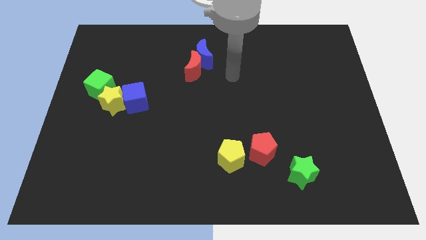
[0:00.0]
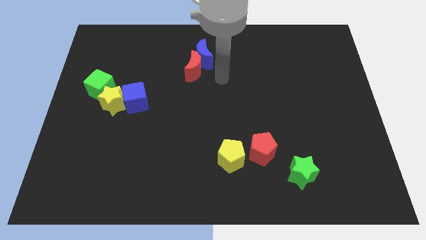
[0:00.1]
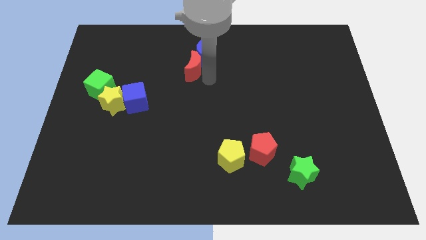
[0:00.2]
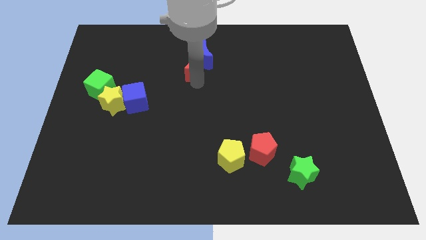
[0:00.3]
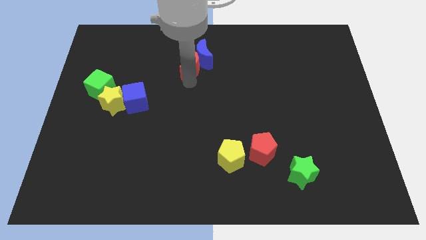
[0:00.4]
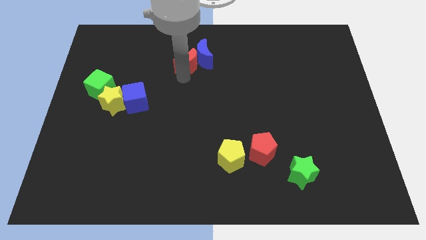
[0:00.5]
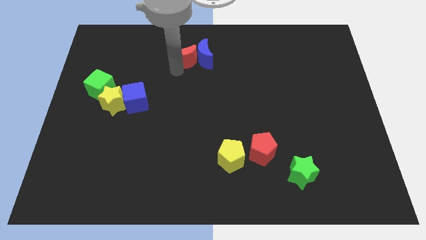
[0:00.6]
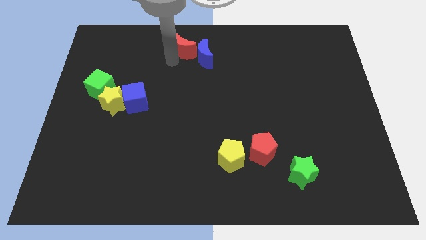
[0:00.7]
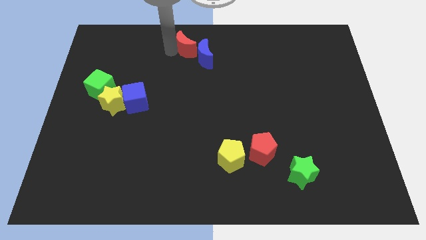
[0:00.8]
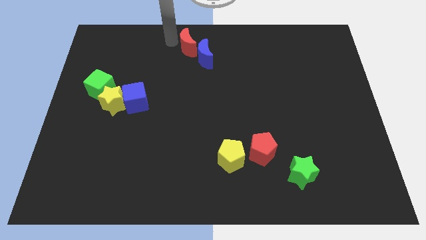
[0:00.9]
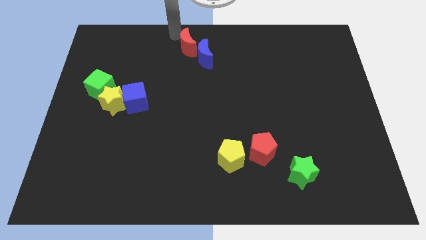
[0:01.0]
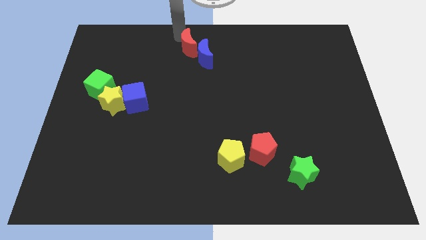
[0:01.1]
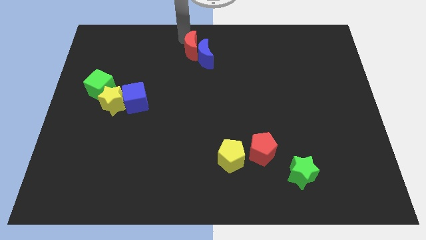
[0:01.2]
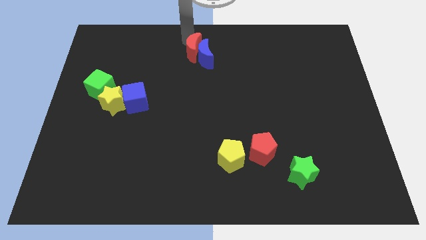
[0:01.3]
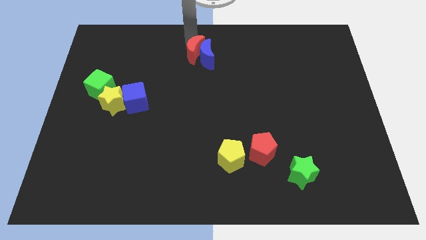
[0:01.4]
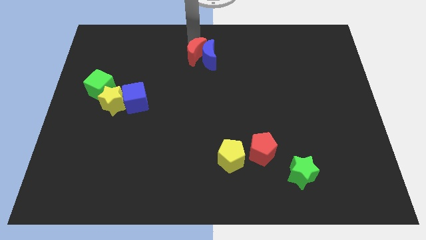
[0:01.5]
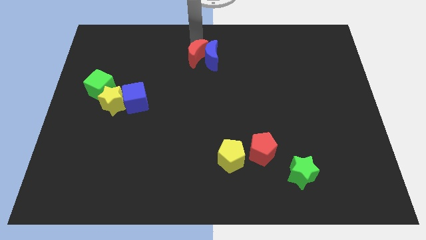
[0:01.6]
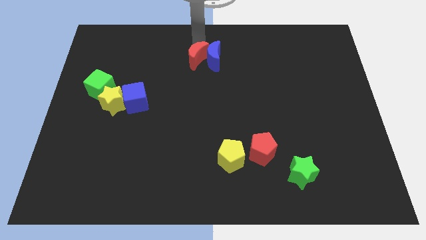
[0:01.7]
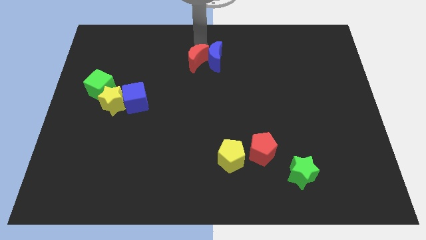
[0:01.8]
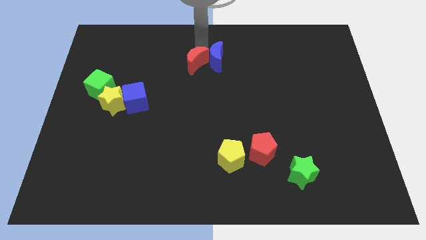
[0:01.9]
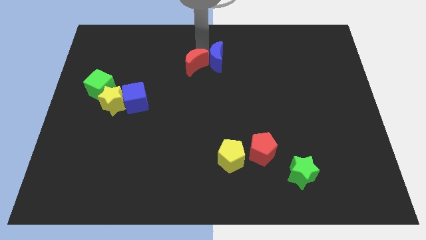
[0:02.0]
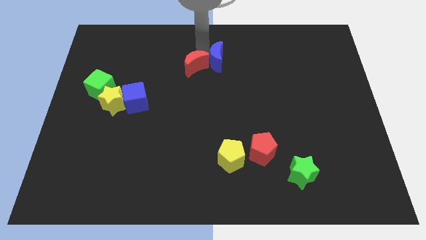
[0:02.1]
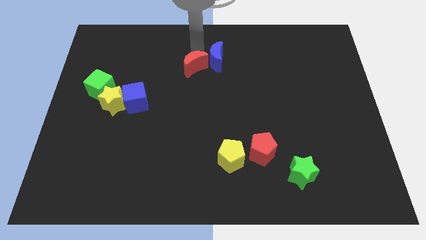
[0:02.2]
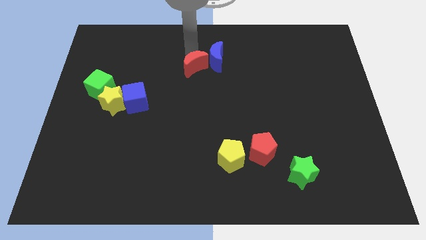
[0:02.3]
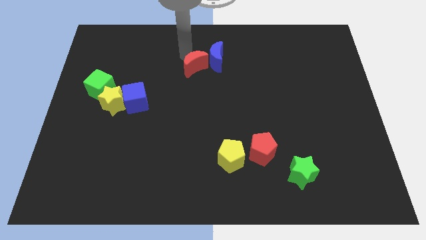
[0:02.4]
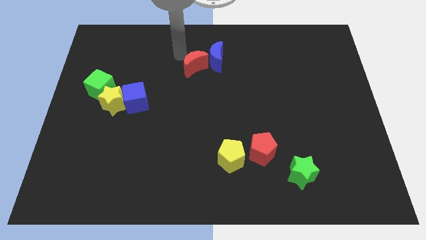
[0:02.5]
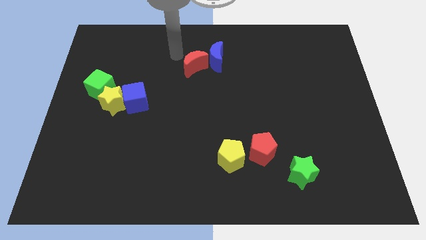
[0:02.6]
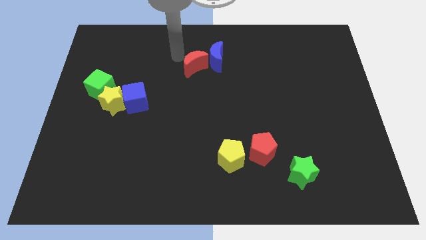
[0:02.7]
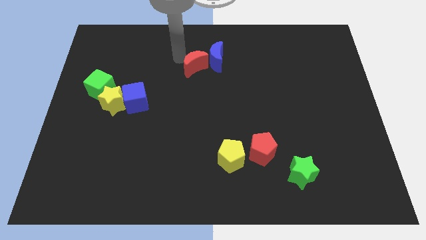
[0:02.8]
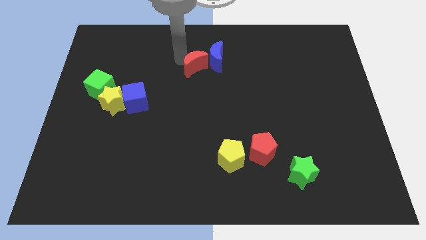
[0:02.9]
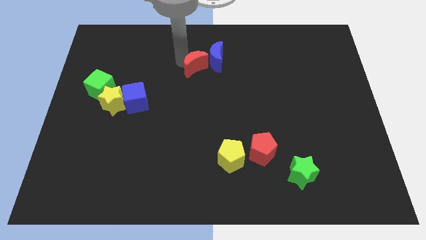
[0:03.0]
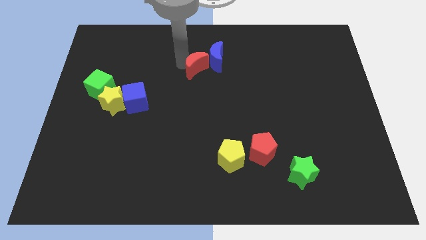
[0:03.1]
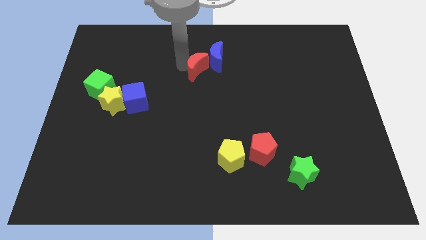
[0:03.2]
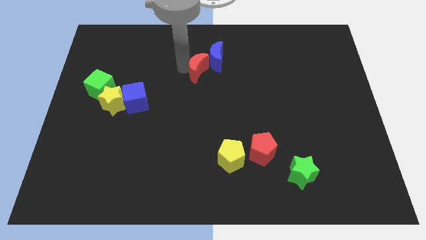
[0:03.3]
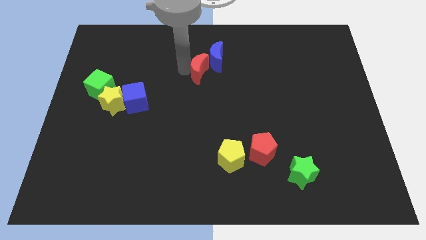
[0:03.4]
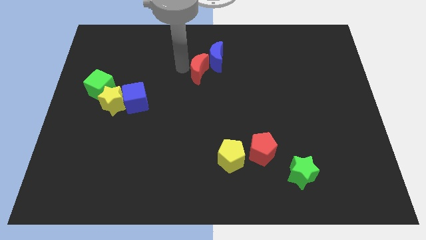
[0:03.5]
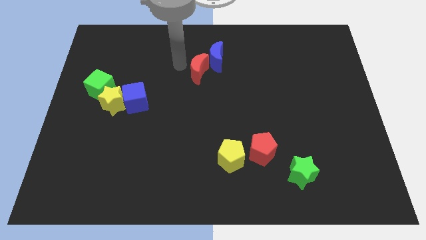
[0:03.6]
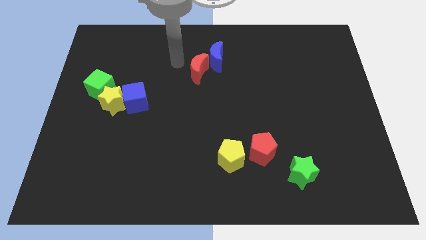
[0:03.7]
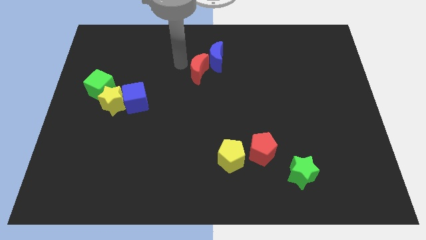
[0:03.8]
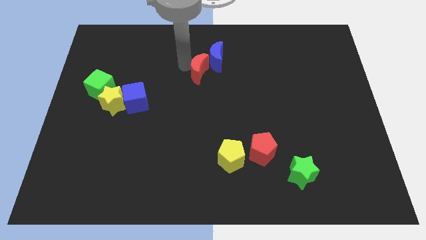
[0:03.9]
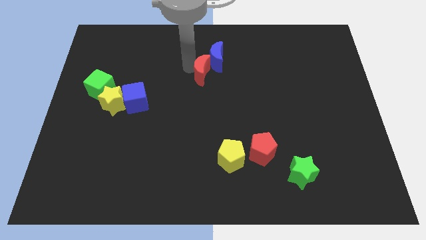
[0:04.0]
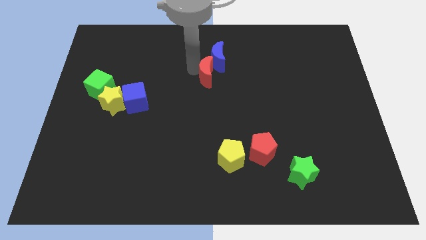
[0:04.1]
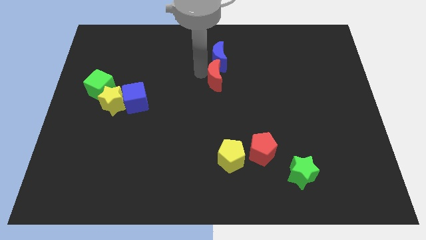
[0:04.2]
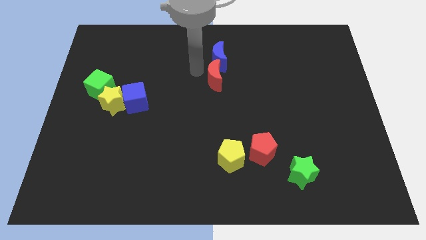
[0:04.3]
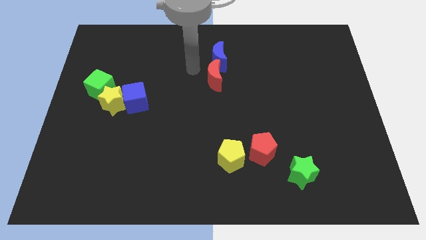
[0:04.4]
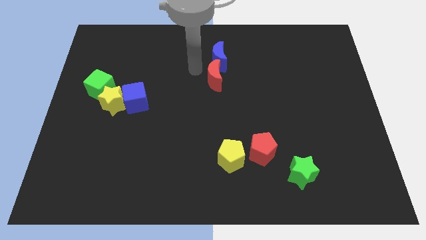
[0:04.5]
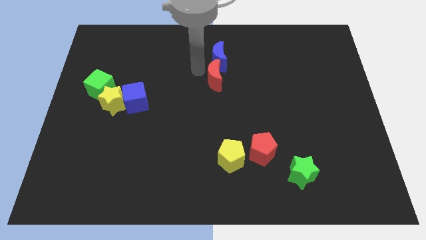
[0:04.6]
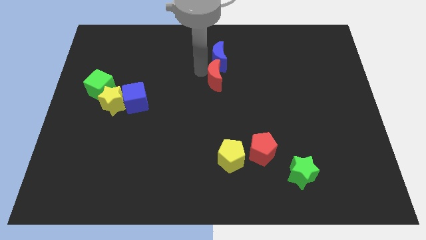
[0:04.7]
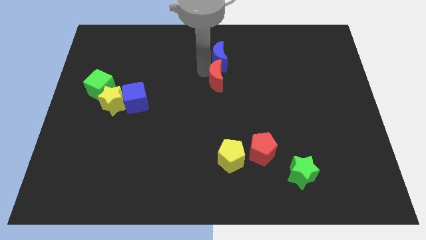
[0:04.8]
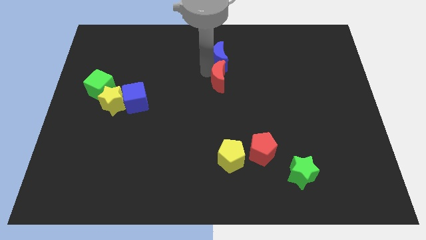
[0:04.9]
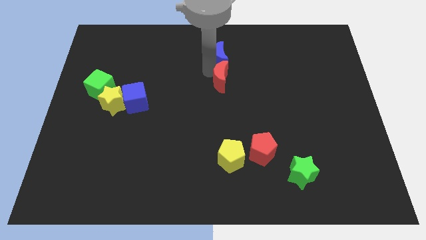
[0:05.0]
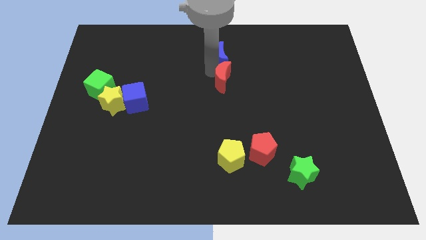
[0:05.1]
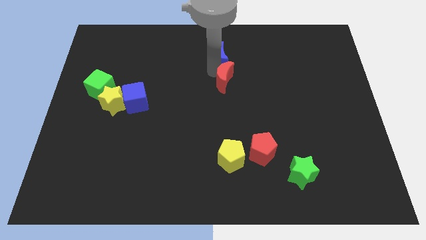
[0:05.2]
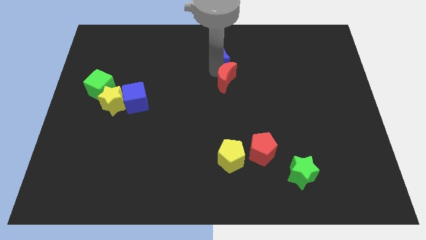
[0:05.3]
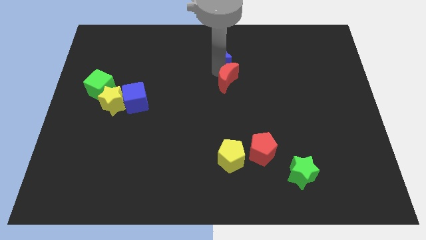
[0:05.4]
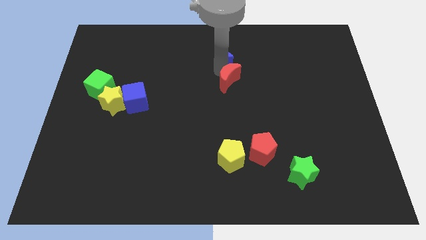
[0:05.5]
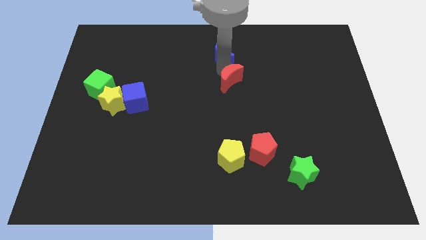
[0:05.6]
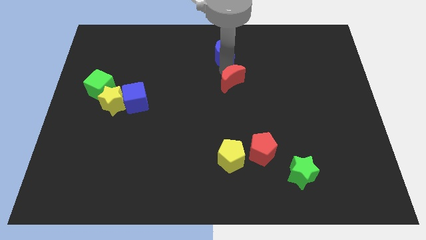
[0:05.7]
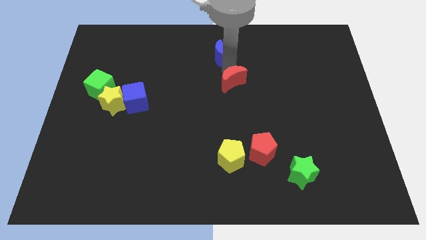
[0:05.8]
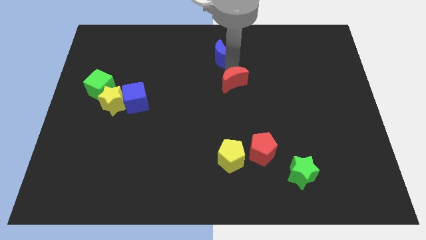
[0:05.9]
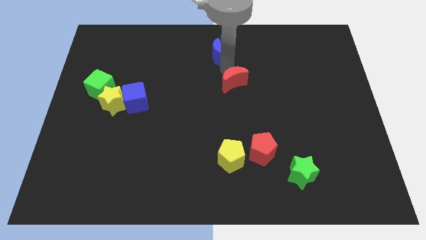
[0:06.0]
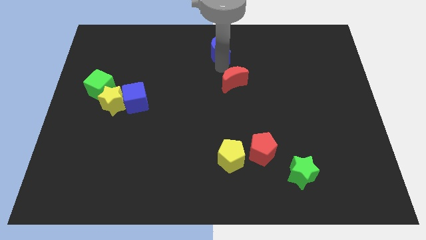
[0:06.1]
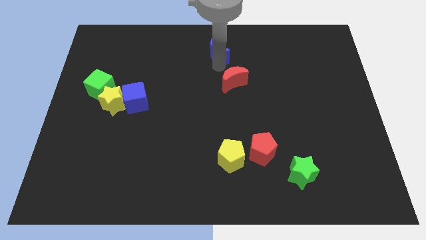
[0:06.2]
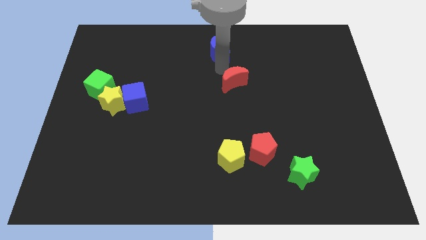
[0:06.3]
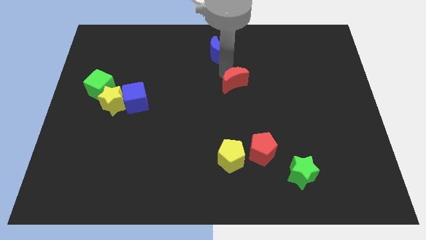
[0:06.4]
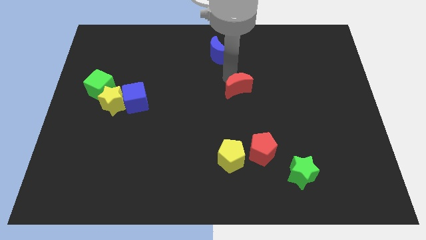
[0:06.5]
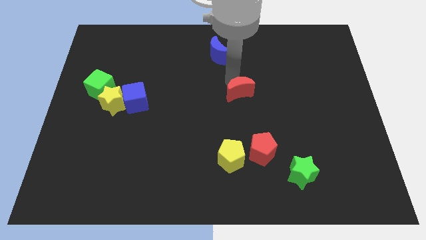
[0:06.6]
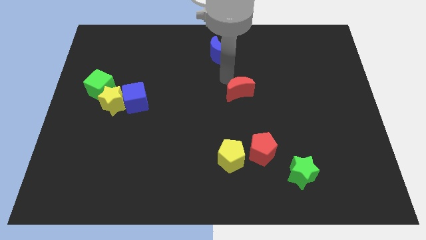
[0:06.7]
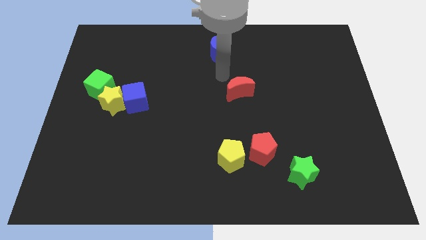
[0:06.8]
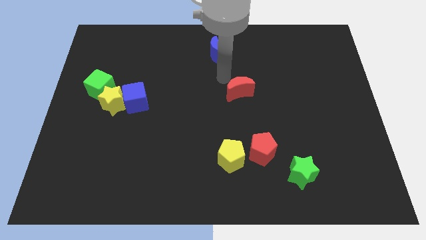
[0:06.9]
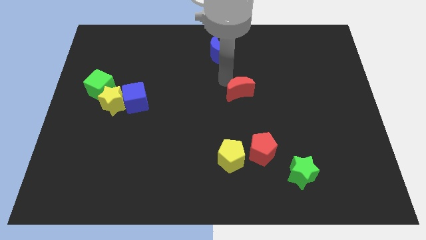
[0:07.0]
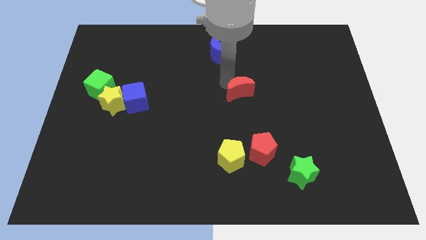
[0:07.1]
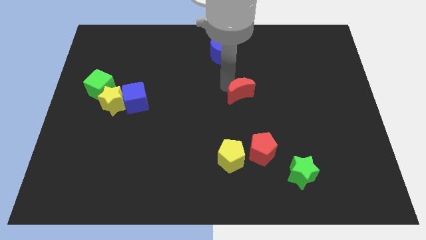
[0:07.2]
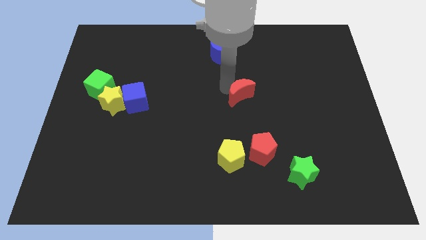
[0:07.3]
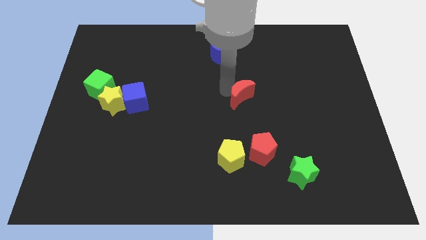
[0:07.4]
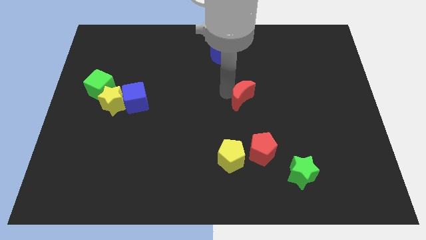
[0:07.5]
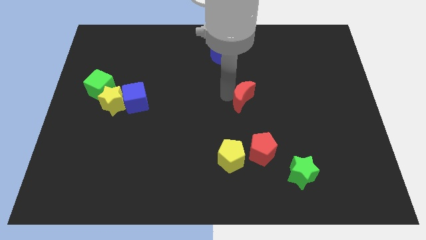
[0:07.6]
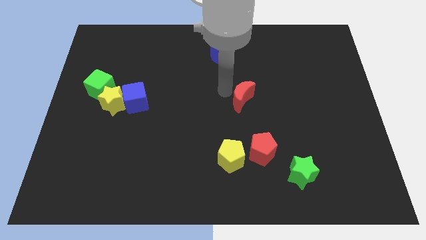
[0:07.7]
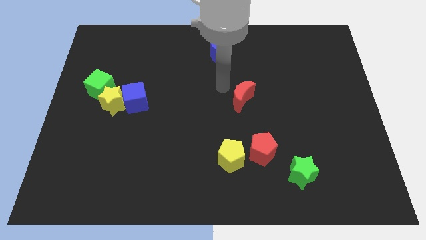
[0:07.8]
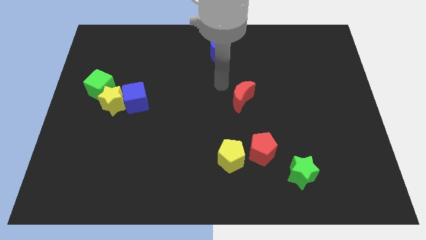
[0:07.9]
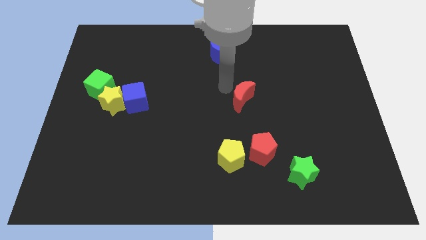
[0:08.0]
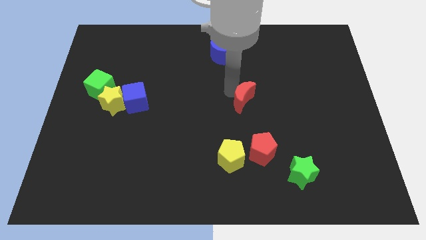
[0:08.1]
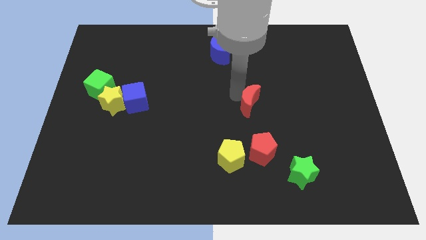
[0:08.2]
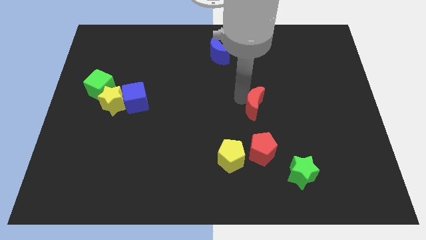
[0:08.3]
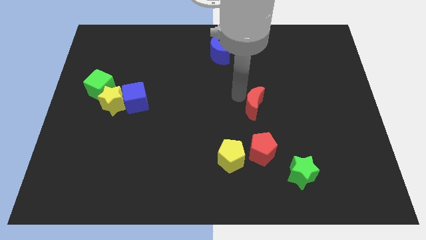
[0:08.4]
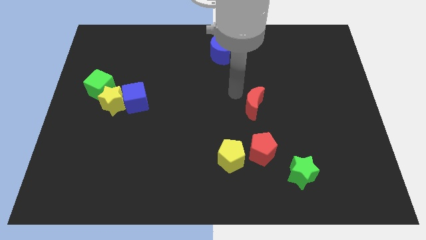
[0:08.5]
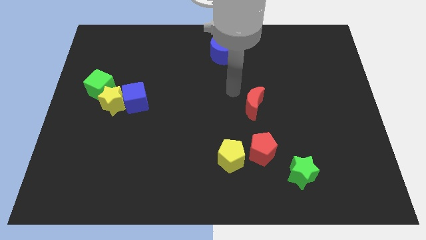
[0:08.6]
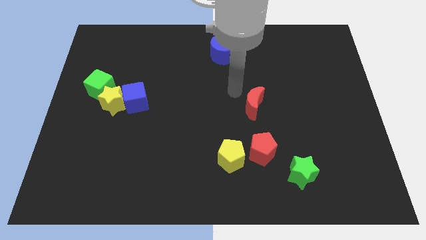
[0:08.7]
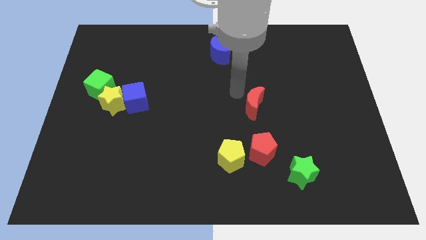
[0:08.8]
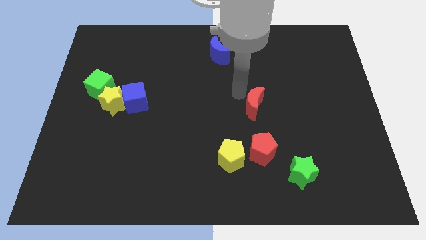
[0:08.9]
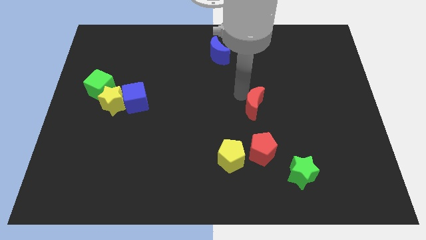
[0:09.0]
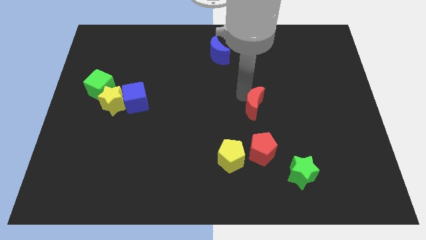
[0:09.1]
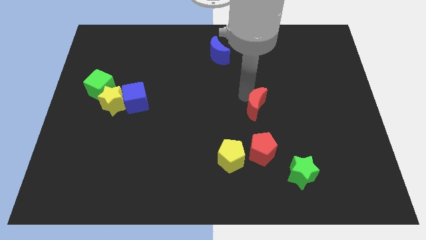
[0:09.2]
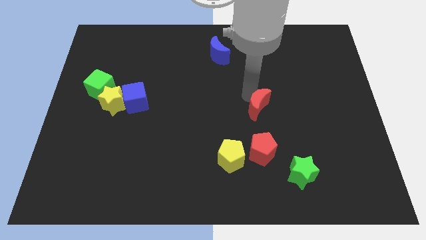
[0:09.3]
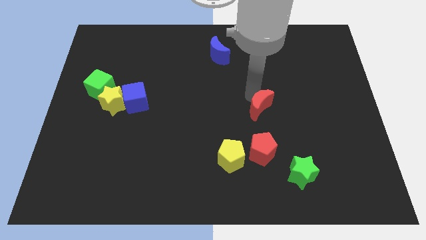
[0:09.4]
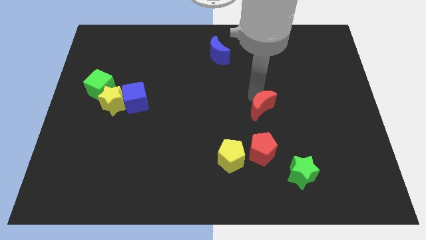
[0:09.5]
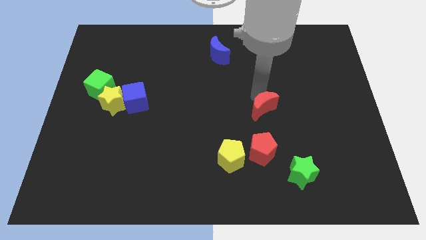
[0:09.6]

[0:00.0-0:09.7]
push the red moon down and then right
